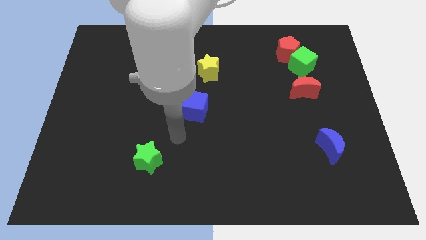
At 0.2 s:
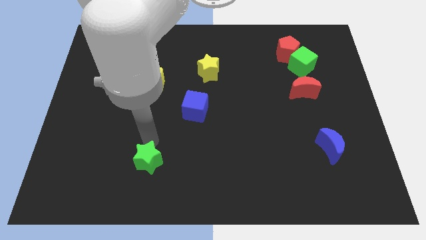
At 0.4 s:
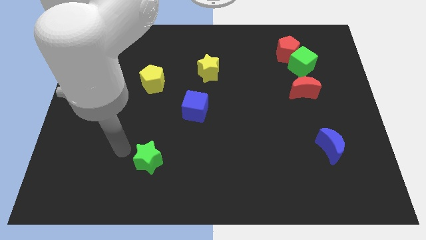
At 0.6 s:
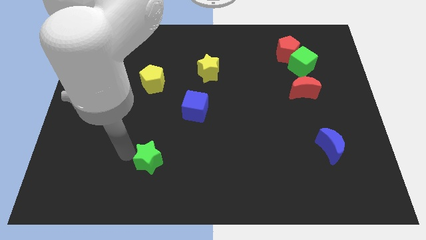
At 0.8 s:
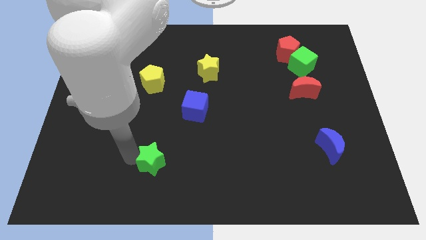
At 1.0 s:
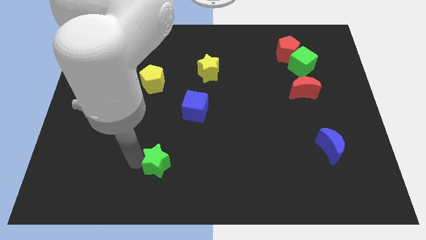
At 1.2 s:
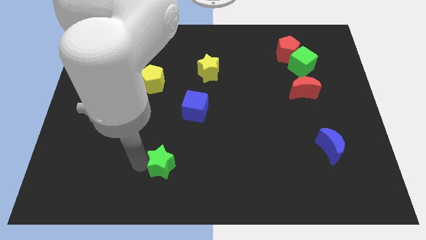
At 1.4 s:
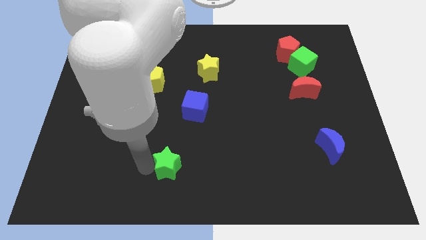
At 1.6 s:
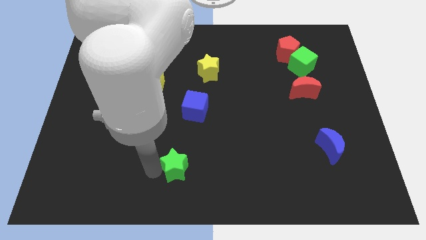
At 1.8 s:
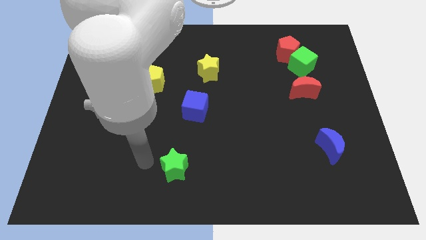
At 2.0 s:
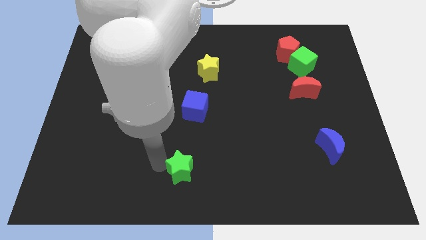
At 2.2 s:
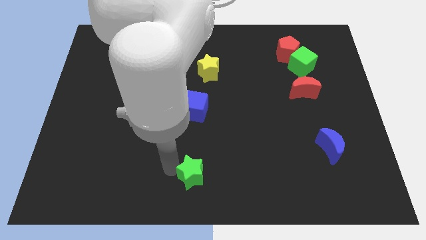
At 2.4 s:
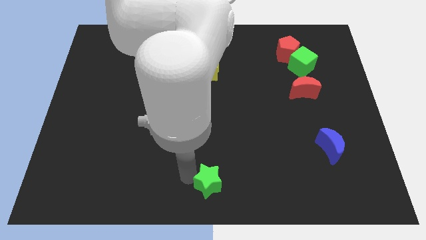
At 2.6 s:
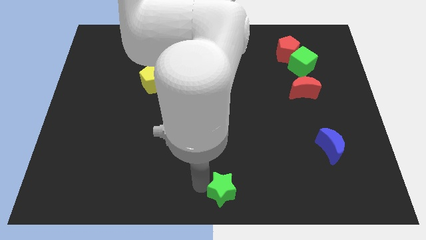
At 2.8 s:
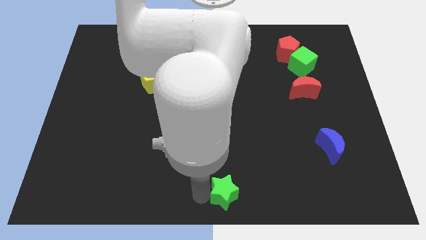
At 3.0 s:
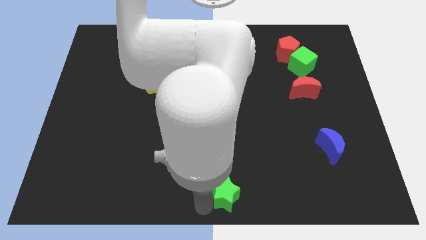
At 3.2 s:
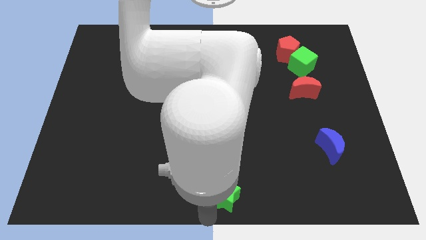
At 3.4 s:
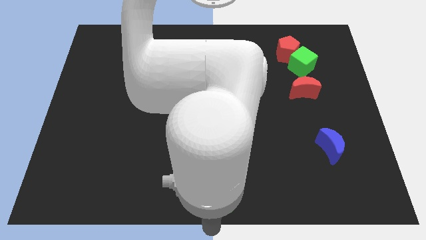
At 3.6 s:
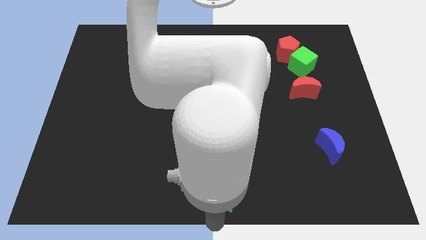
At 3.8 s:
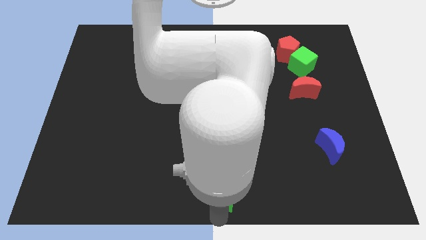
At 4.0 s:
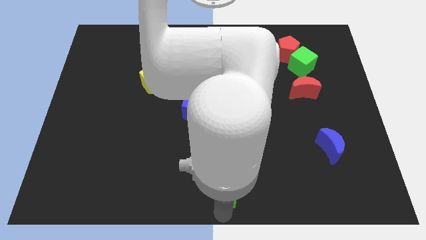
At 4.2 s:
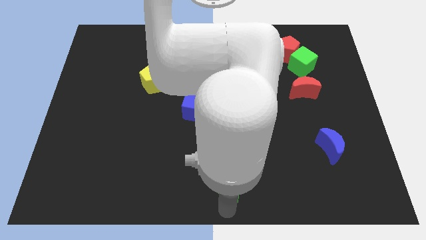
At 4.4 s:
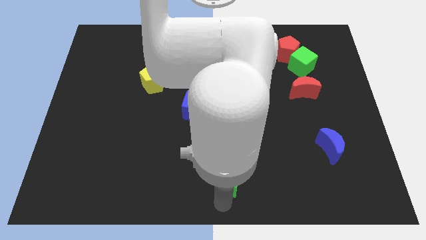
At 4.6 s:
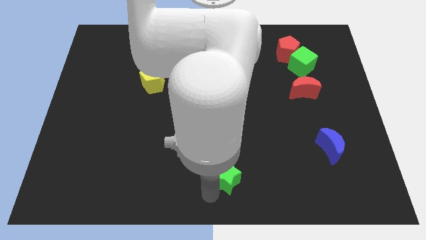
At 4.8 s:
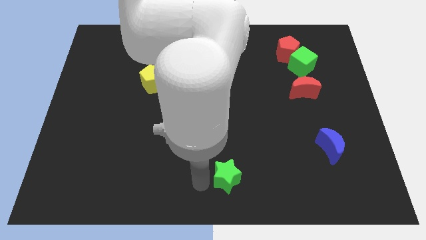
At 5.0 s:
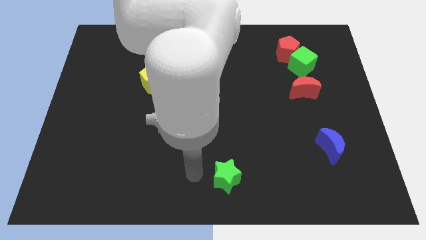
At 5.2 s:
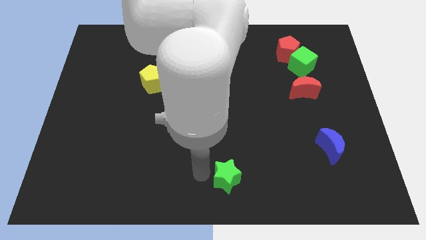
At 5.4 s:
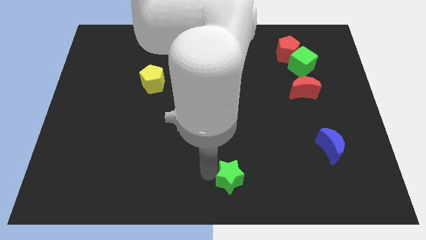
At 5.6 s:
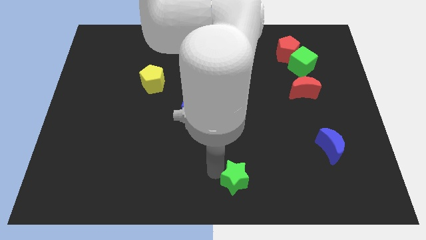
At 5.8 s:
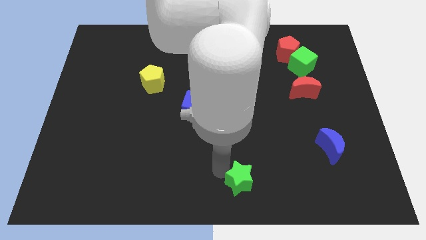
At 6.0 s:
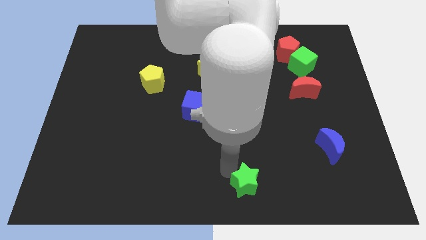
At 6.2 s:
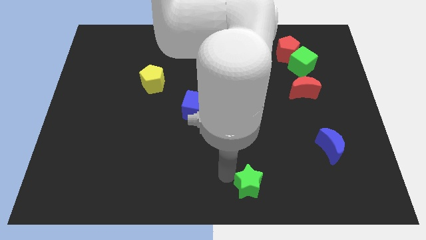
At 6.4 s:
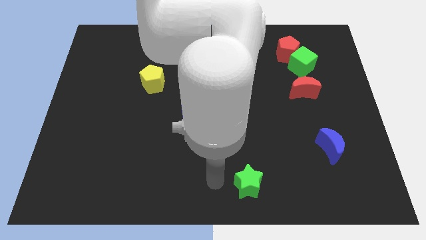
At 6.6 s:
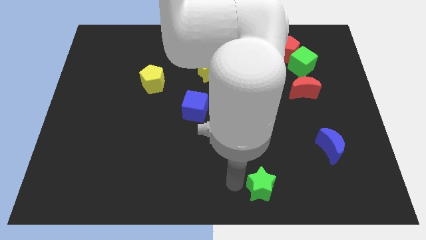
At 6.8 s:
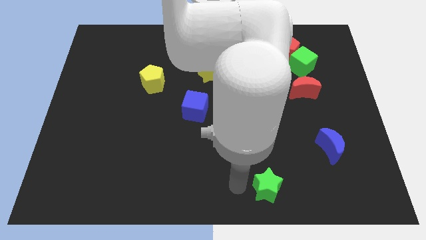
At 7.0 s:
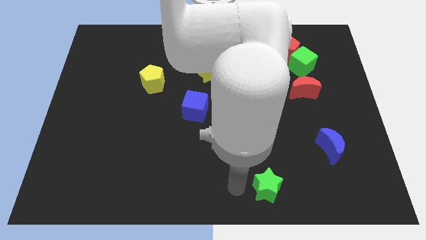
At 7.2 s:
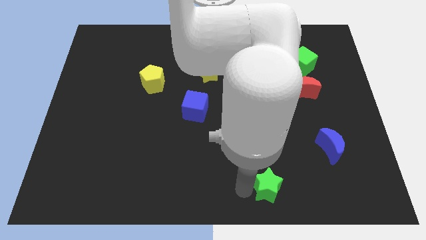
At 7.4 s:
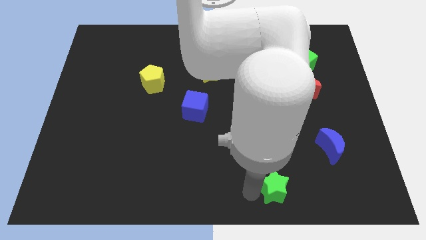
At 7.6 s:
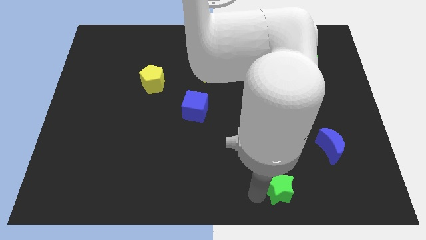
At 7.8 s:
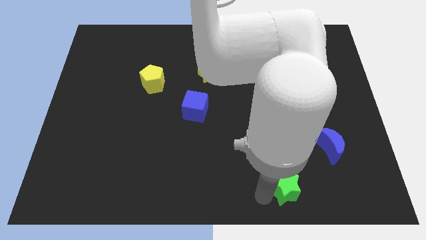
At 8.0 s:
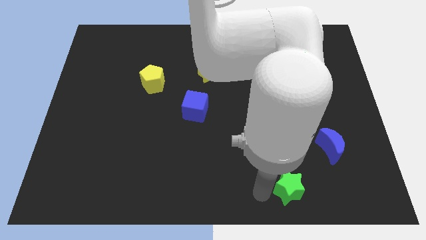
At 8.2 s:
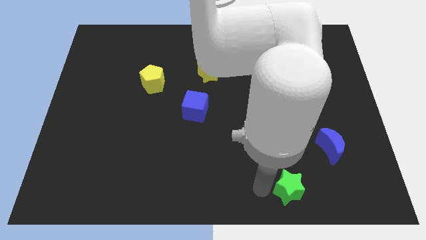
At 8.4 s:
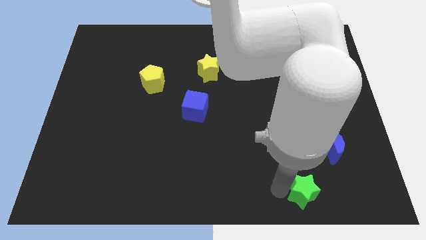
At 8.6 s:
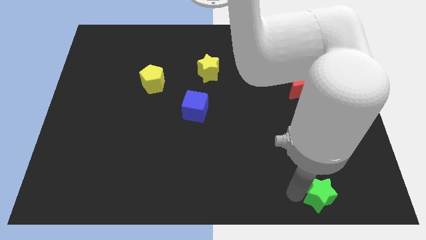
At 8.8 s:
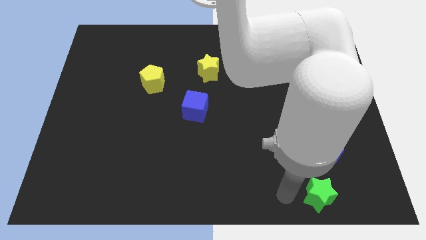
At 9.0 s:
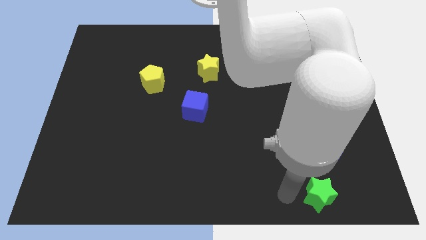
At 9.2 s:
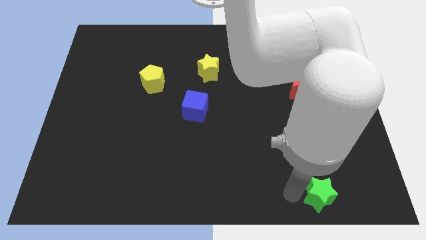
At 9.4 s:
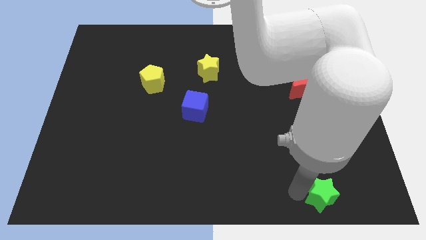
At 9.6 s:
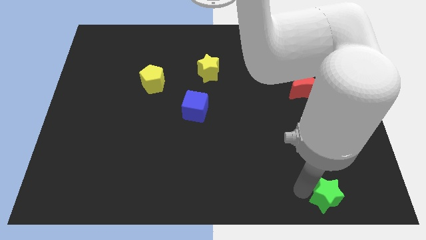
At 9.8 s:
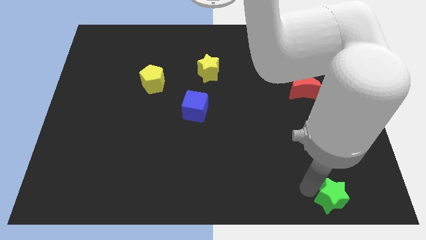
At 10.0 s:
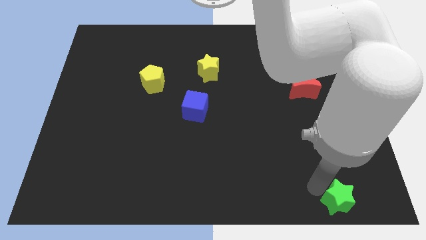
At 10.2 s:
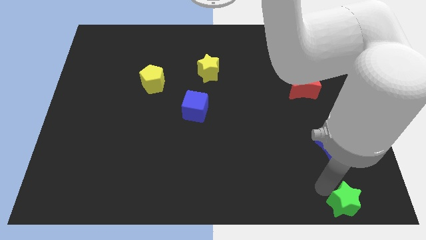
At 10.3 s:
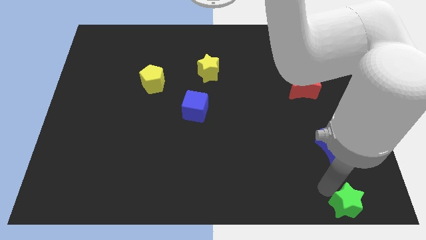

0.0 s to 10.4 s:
slide the green star to the bottom right of the board

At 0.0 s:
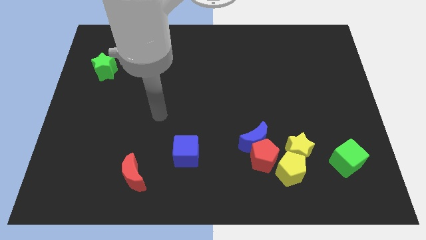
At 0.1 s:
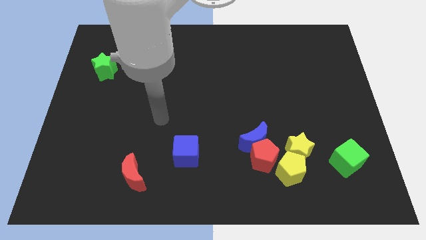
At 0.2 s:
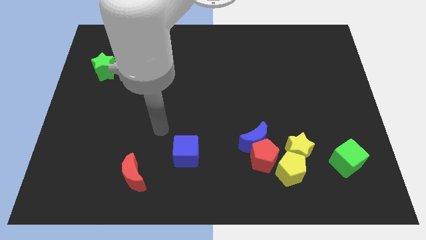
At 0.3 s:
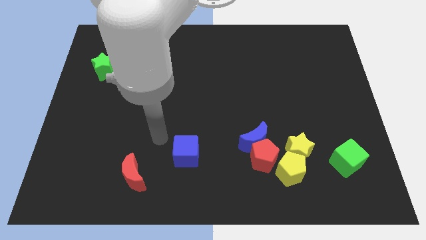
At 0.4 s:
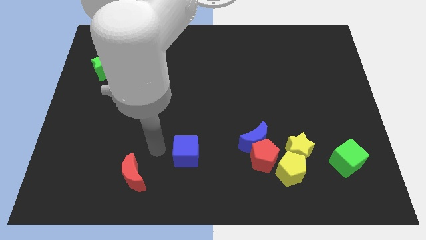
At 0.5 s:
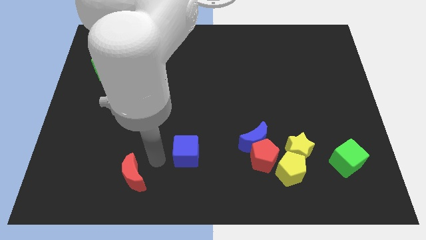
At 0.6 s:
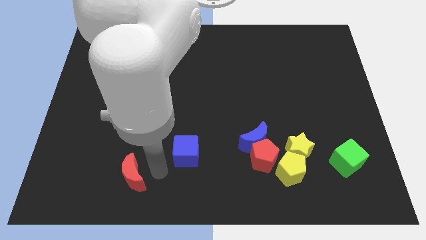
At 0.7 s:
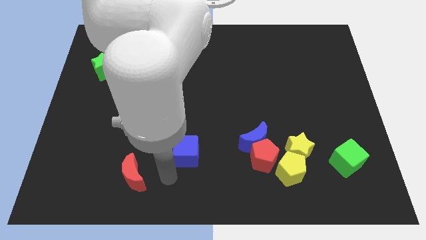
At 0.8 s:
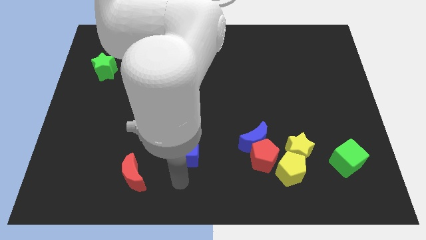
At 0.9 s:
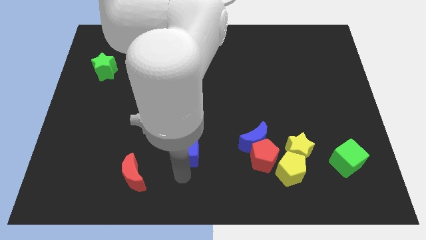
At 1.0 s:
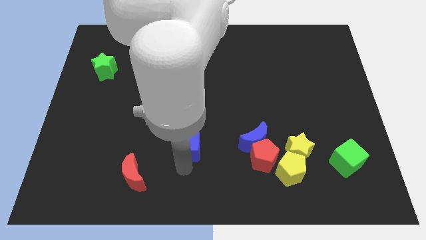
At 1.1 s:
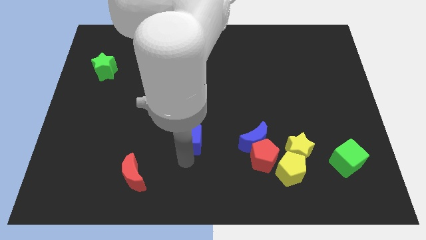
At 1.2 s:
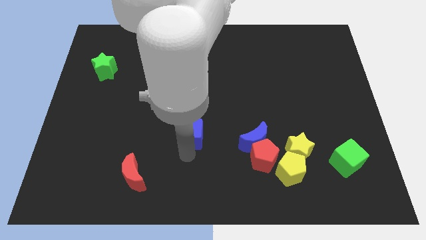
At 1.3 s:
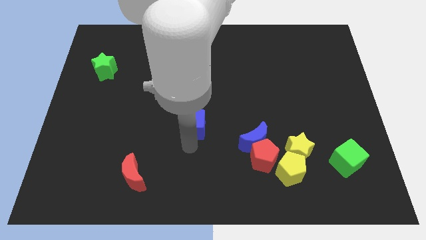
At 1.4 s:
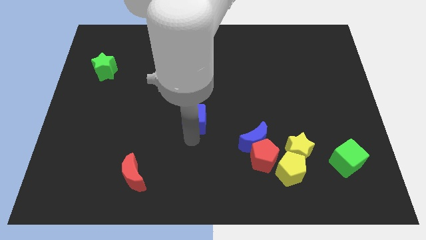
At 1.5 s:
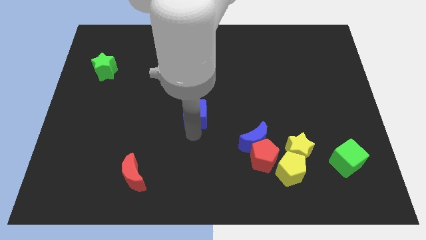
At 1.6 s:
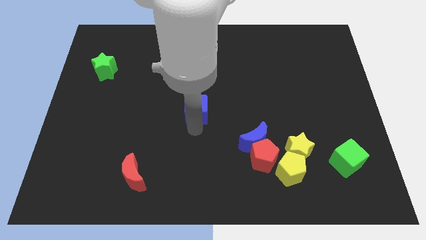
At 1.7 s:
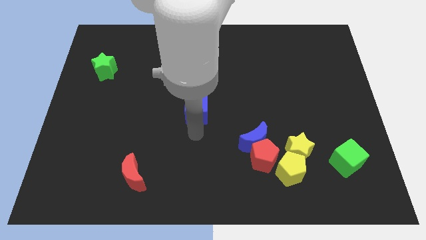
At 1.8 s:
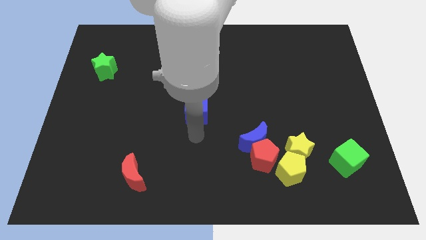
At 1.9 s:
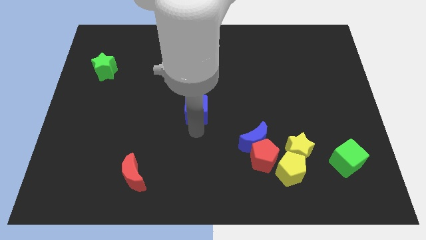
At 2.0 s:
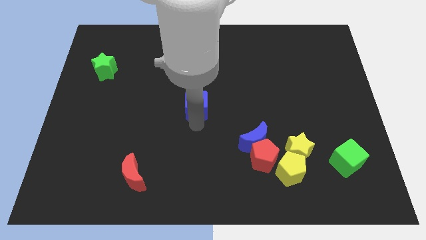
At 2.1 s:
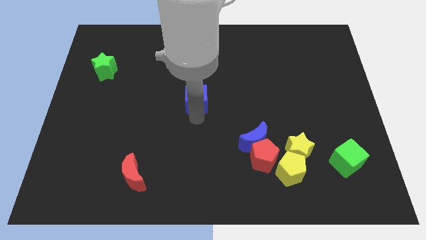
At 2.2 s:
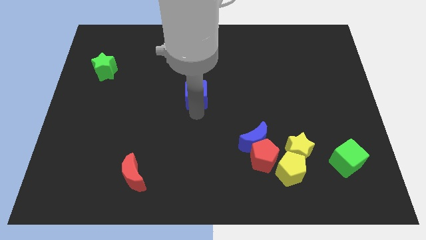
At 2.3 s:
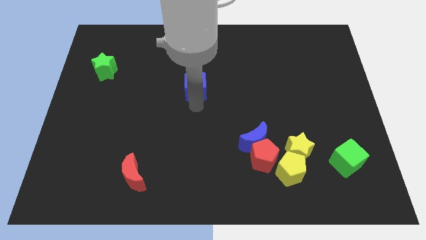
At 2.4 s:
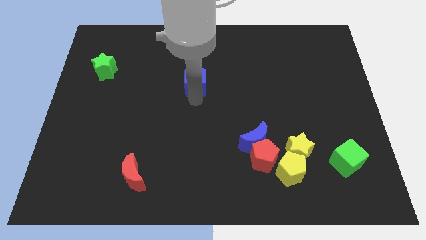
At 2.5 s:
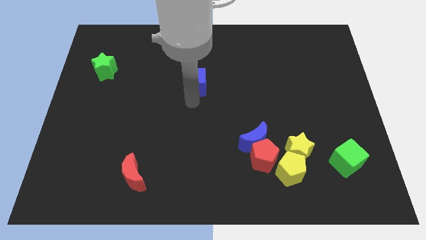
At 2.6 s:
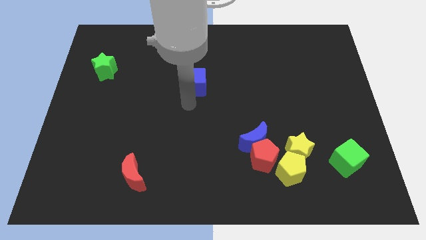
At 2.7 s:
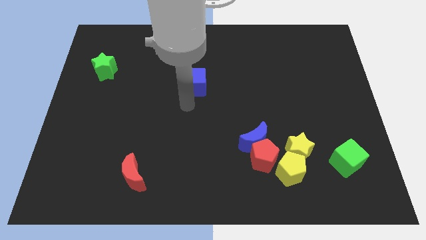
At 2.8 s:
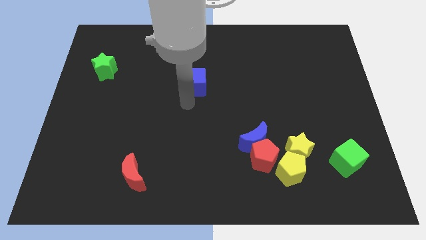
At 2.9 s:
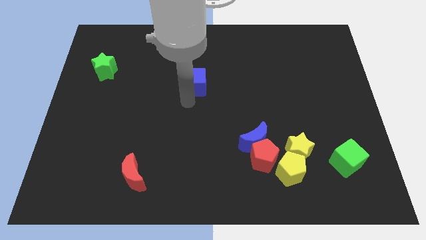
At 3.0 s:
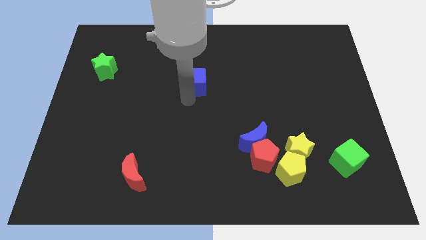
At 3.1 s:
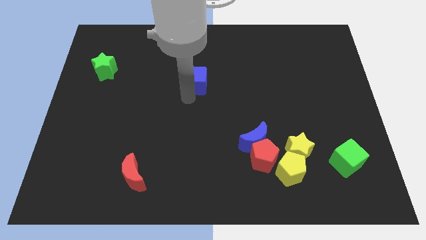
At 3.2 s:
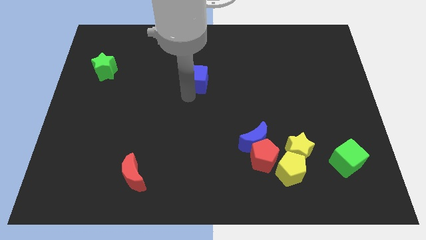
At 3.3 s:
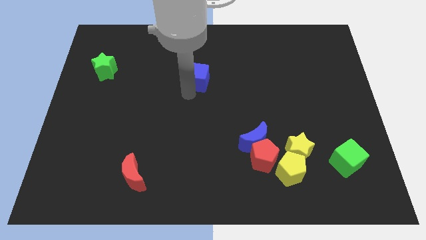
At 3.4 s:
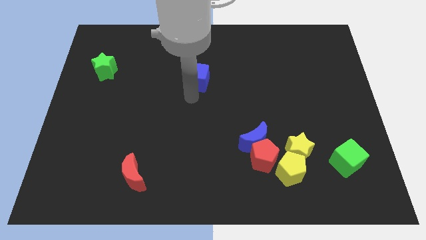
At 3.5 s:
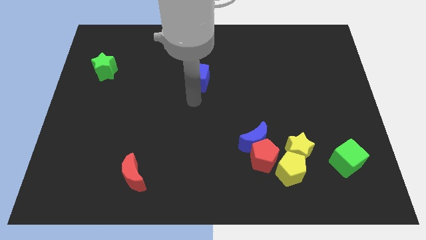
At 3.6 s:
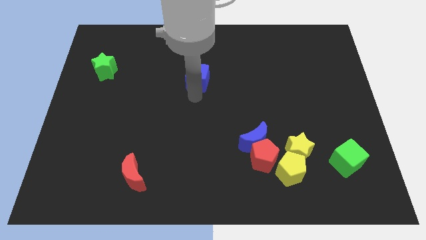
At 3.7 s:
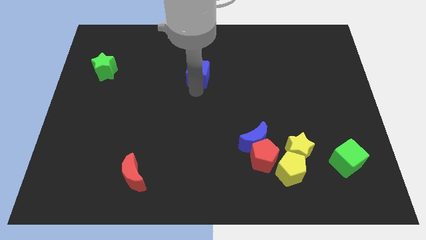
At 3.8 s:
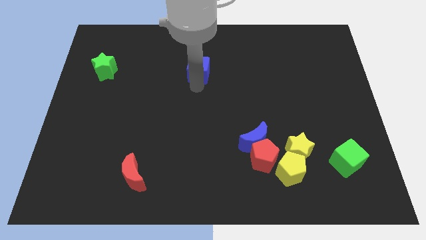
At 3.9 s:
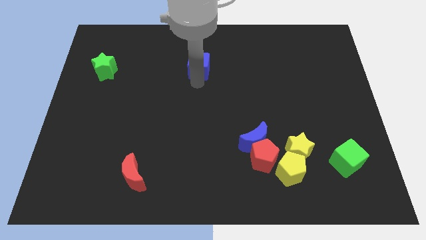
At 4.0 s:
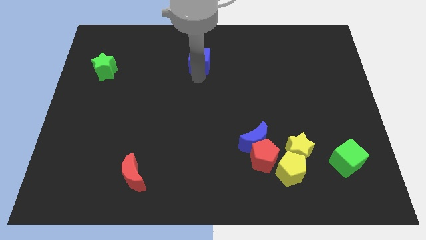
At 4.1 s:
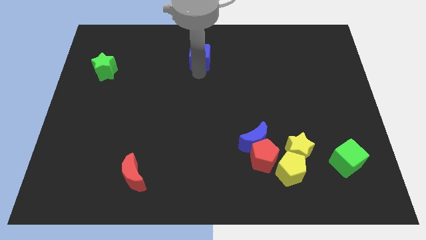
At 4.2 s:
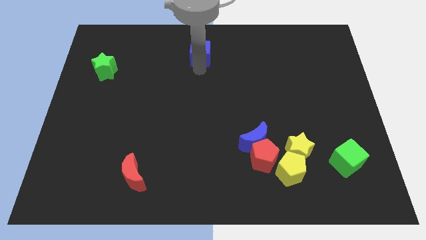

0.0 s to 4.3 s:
slide the blue cube to the towards your base
